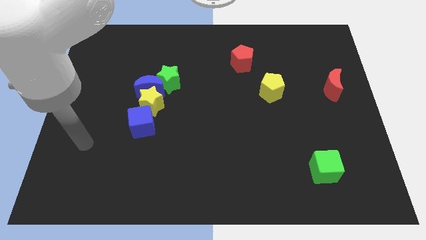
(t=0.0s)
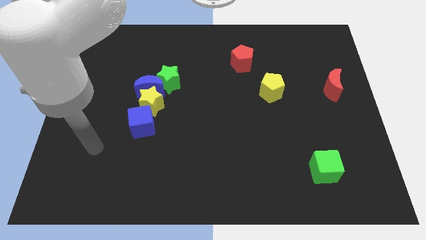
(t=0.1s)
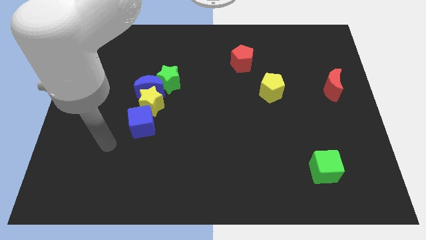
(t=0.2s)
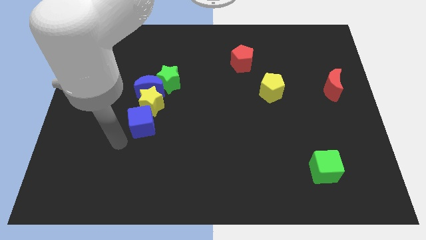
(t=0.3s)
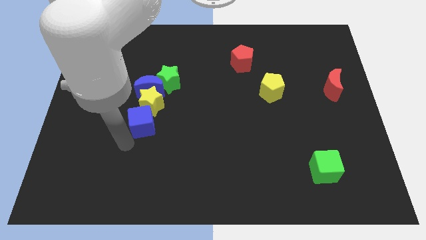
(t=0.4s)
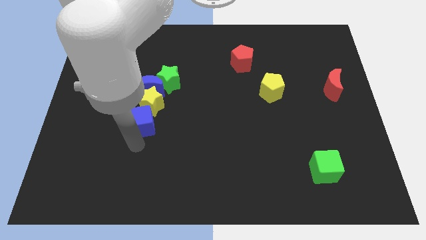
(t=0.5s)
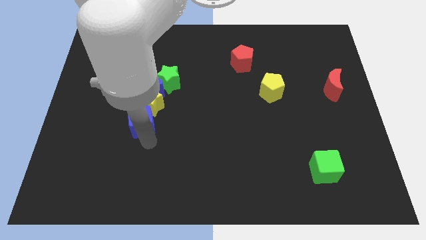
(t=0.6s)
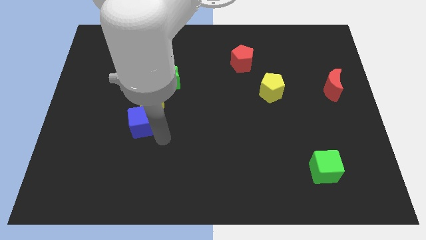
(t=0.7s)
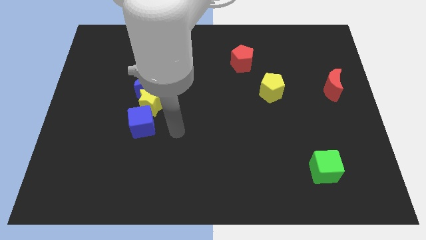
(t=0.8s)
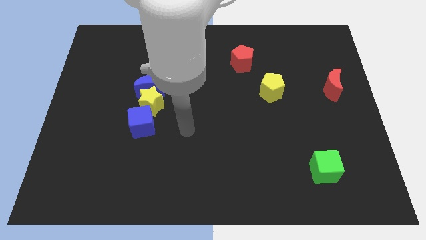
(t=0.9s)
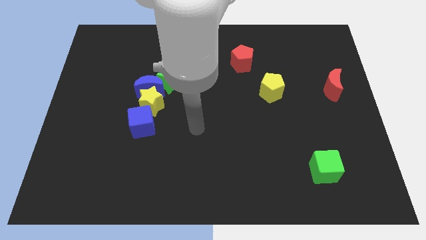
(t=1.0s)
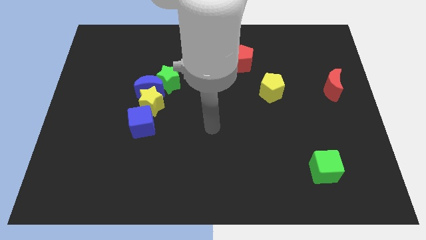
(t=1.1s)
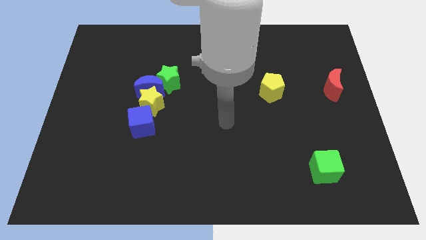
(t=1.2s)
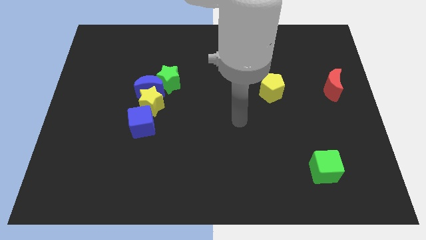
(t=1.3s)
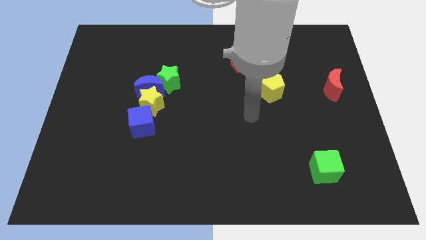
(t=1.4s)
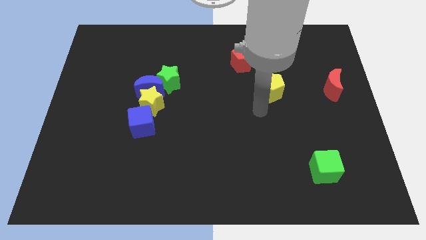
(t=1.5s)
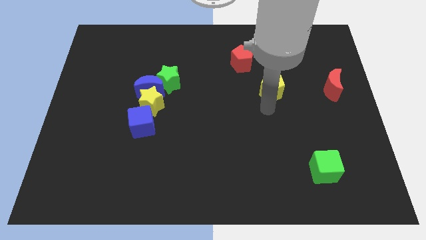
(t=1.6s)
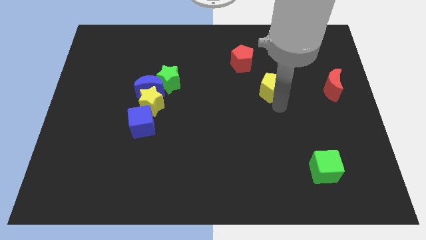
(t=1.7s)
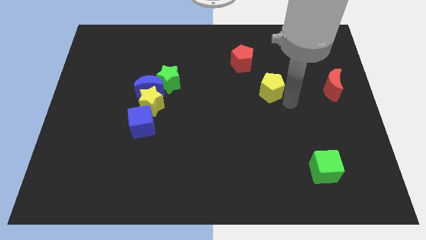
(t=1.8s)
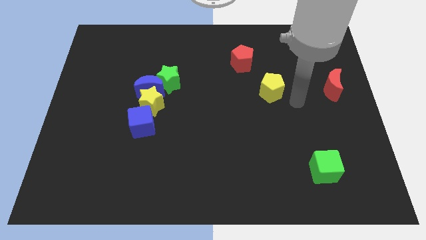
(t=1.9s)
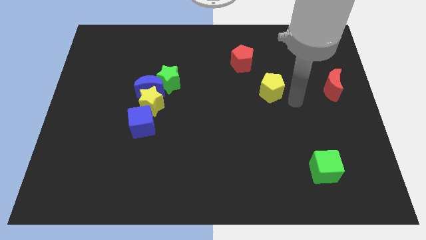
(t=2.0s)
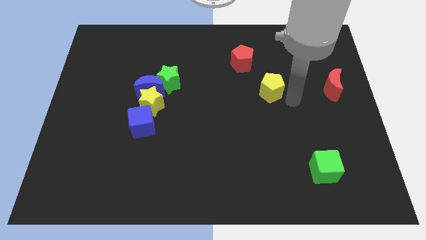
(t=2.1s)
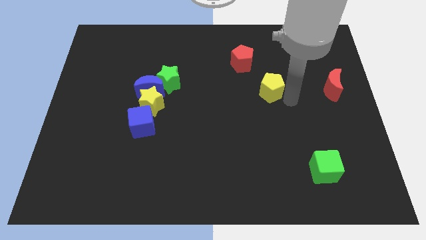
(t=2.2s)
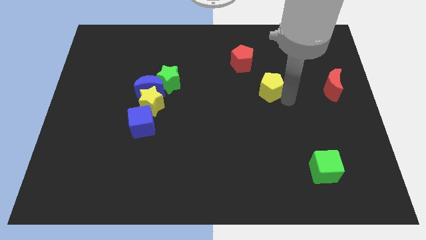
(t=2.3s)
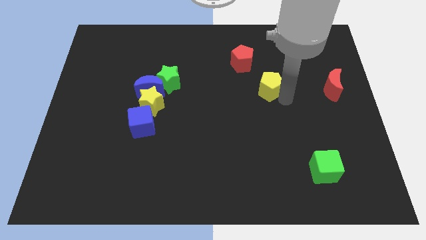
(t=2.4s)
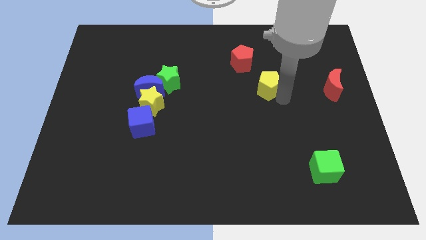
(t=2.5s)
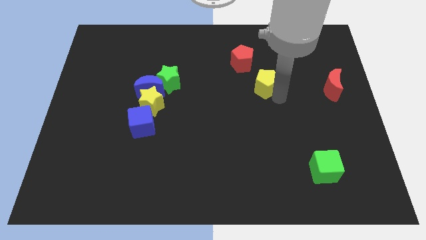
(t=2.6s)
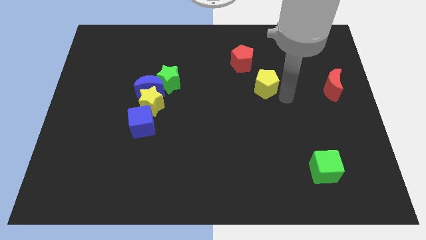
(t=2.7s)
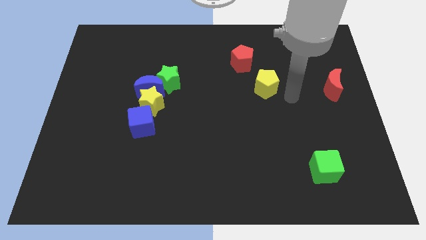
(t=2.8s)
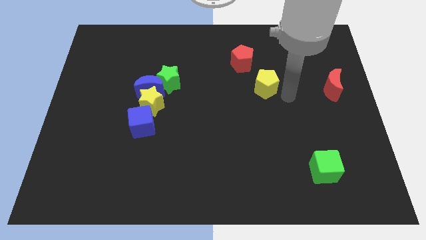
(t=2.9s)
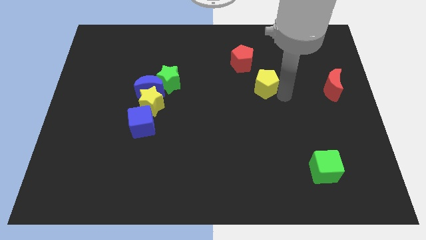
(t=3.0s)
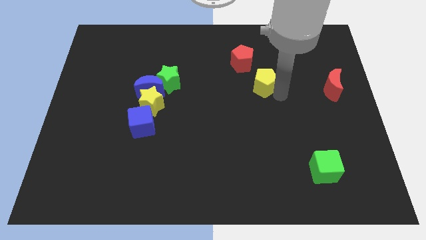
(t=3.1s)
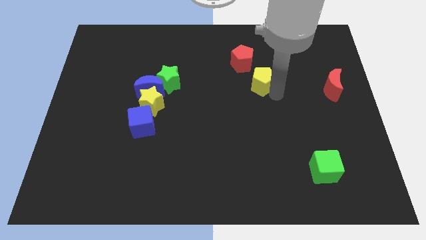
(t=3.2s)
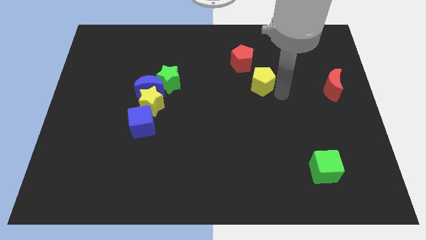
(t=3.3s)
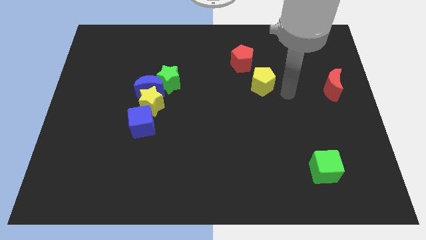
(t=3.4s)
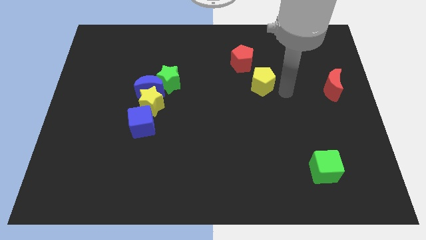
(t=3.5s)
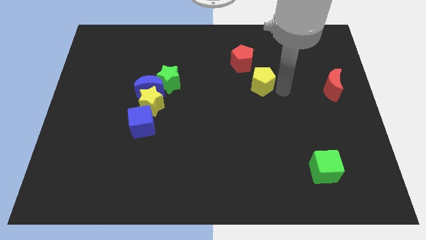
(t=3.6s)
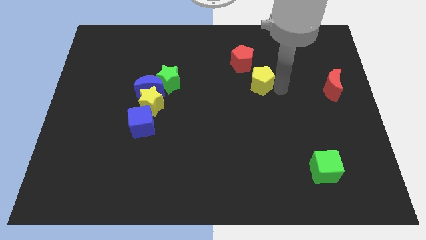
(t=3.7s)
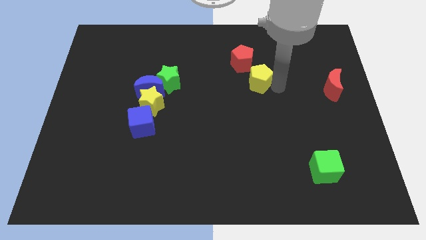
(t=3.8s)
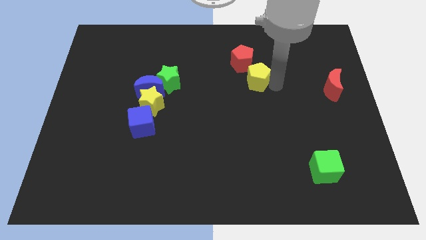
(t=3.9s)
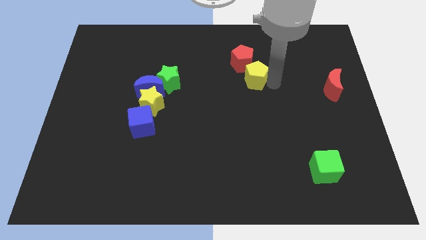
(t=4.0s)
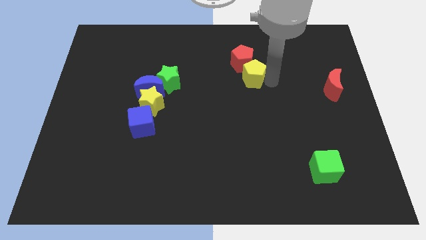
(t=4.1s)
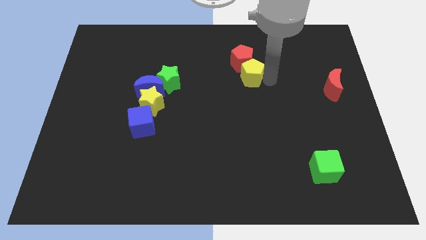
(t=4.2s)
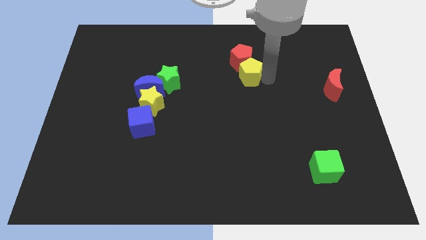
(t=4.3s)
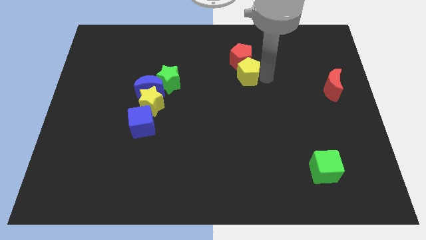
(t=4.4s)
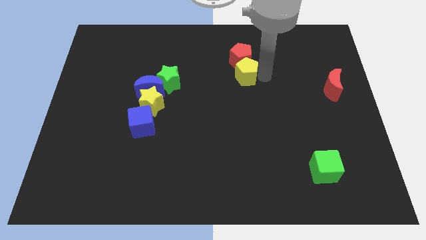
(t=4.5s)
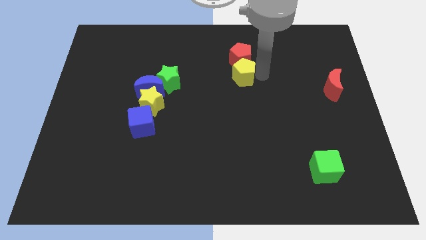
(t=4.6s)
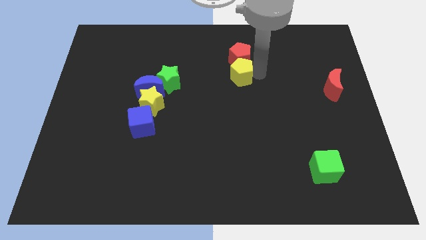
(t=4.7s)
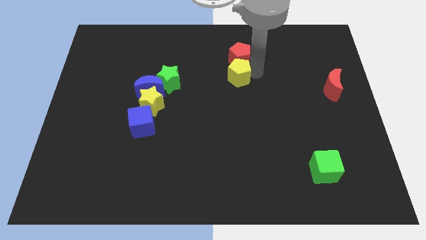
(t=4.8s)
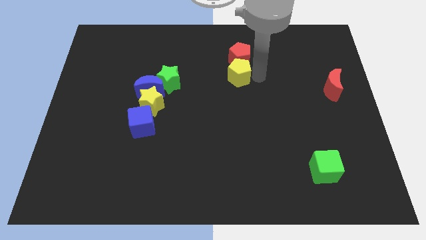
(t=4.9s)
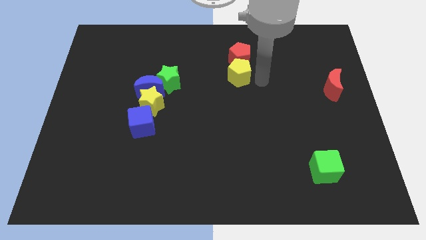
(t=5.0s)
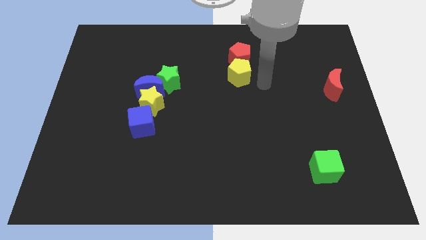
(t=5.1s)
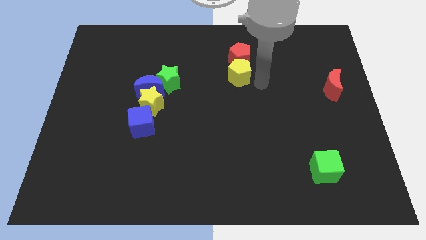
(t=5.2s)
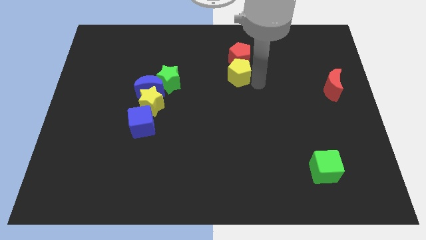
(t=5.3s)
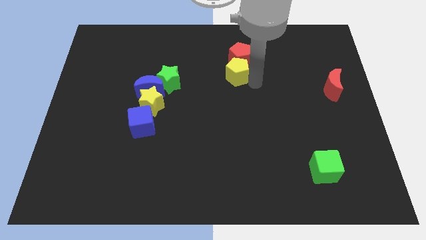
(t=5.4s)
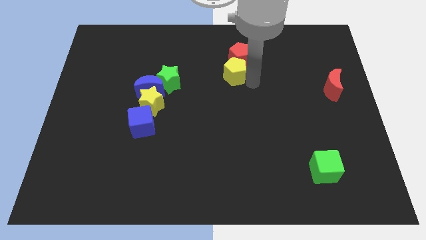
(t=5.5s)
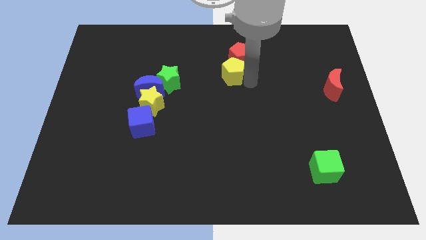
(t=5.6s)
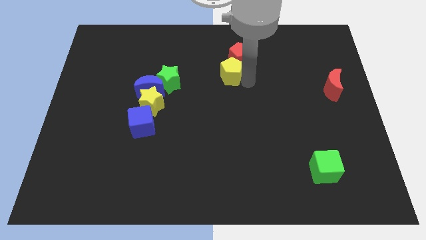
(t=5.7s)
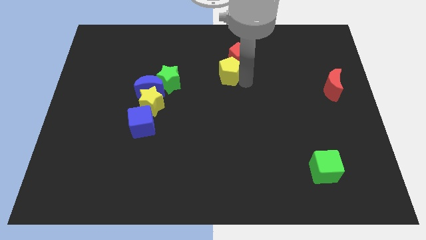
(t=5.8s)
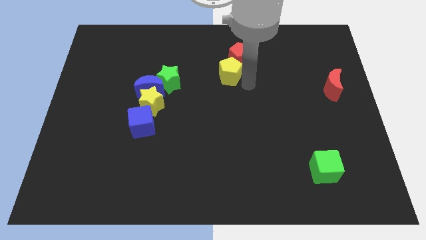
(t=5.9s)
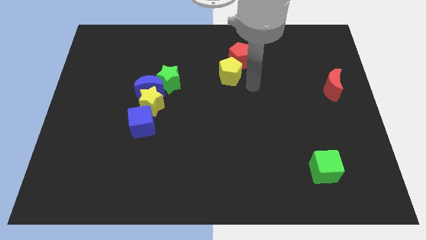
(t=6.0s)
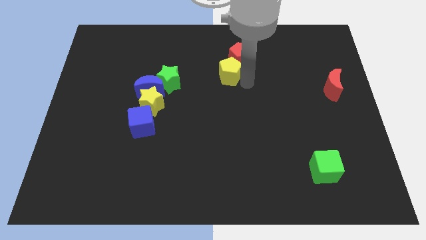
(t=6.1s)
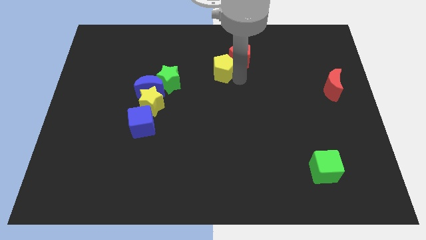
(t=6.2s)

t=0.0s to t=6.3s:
move the yellow pentagon just left of the red pentagon
